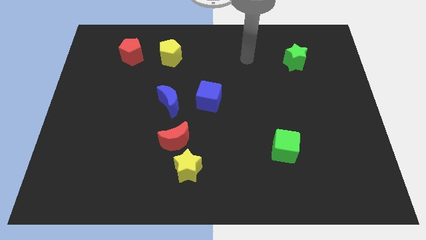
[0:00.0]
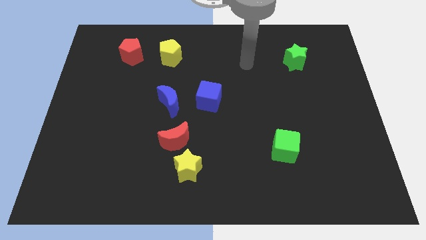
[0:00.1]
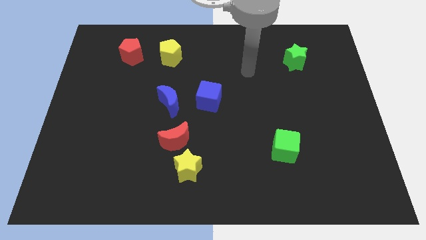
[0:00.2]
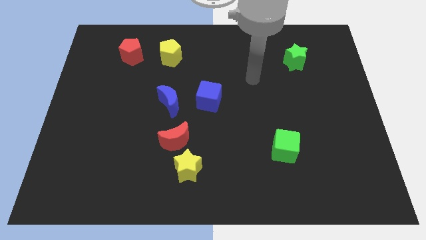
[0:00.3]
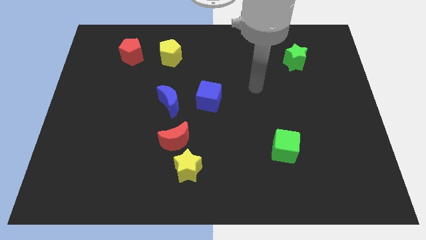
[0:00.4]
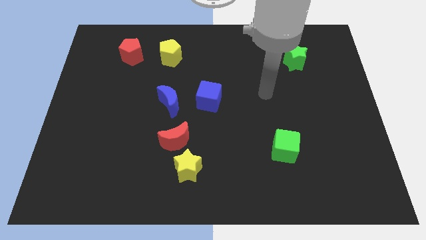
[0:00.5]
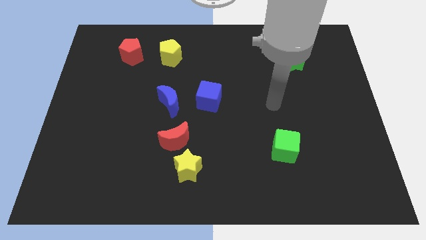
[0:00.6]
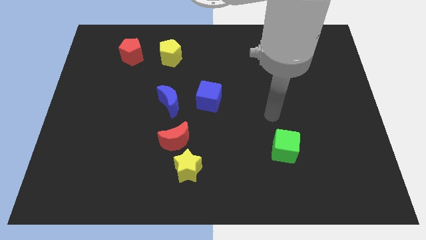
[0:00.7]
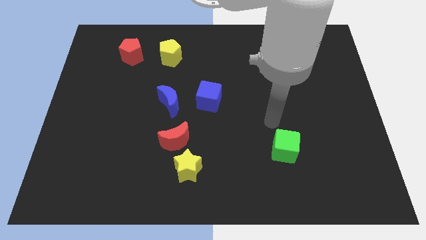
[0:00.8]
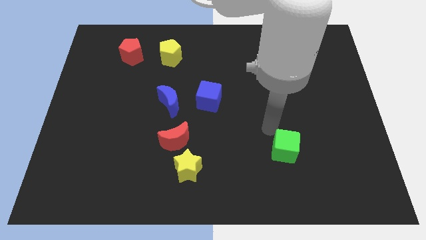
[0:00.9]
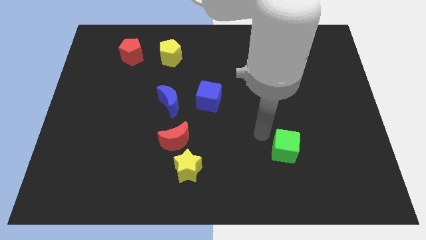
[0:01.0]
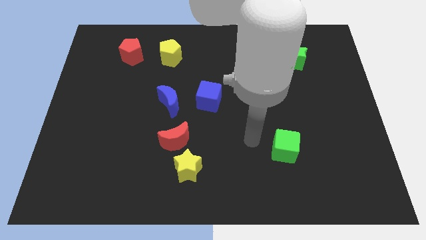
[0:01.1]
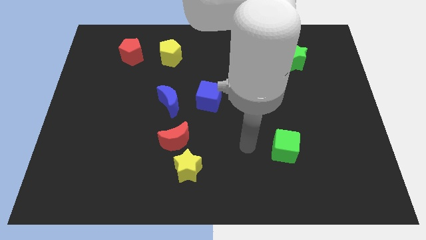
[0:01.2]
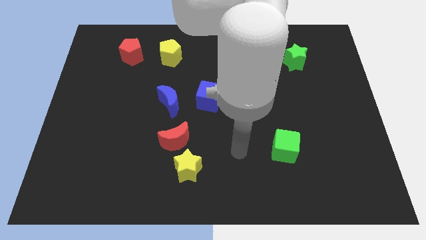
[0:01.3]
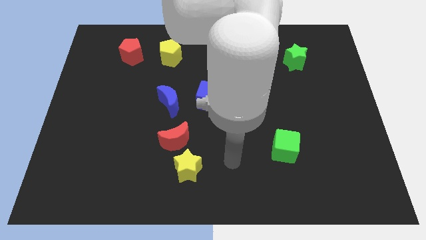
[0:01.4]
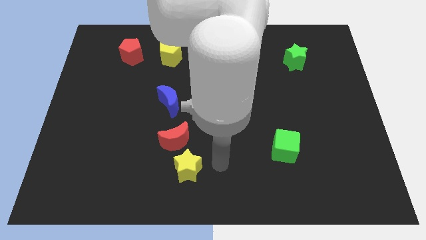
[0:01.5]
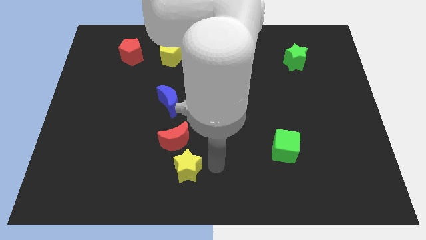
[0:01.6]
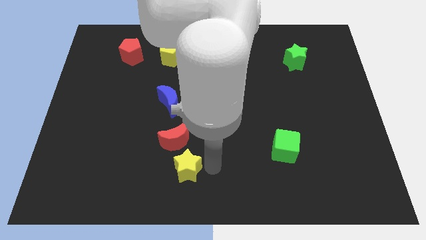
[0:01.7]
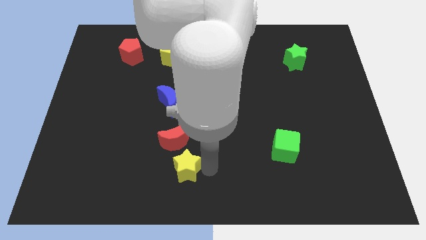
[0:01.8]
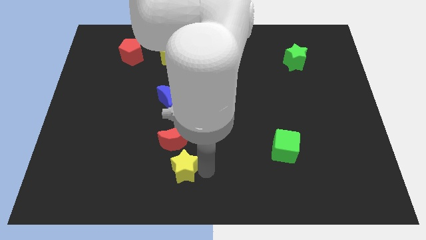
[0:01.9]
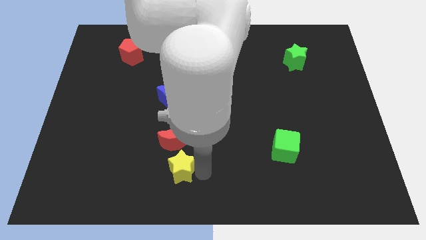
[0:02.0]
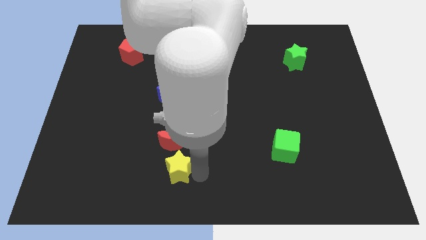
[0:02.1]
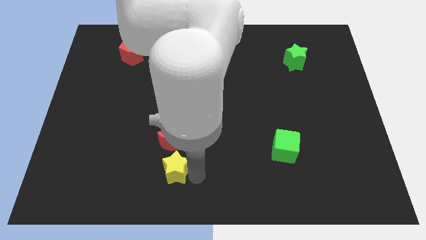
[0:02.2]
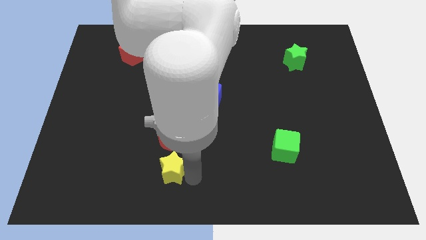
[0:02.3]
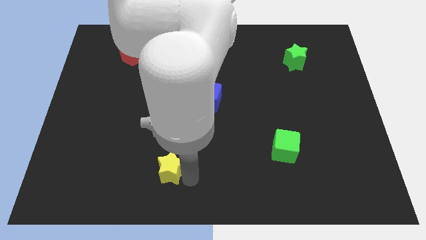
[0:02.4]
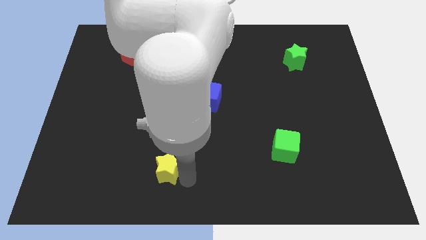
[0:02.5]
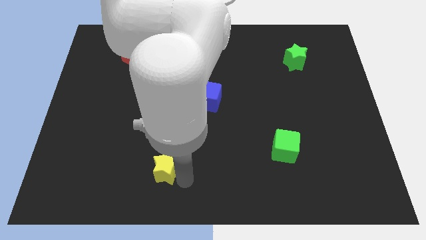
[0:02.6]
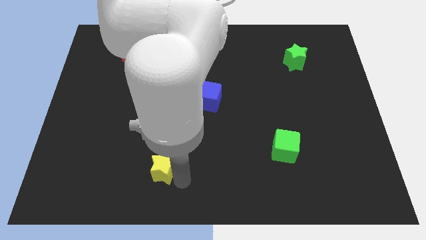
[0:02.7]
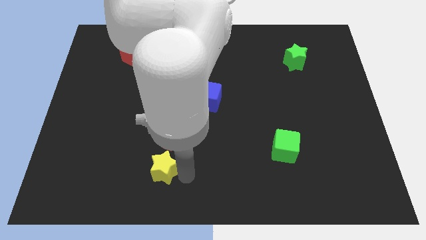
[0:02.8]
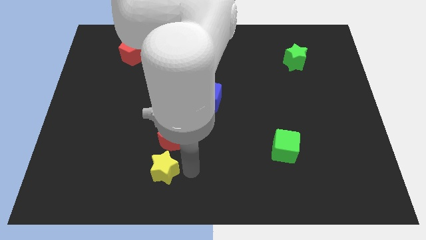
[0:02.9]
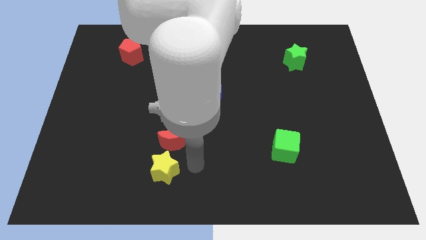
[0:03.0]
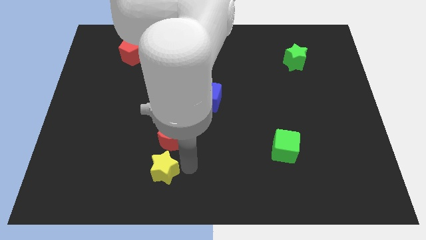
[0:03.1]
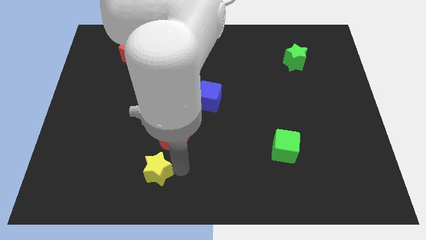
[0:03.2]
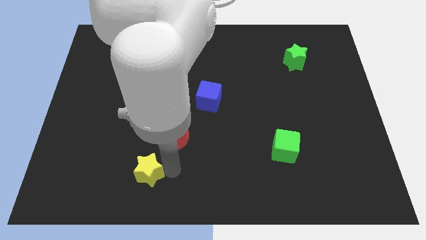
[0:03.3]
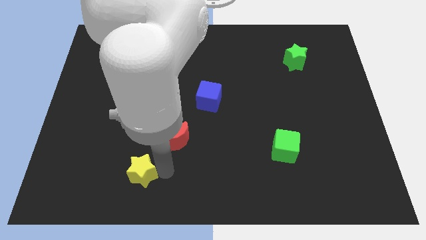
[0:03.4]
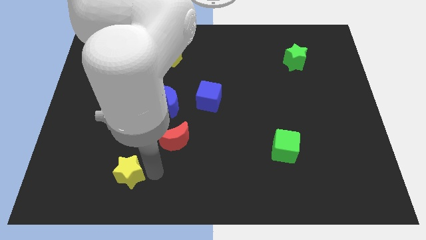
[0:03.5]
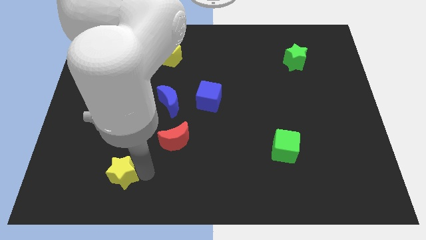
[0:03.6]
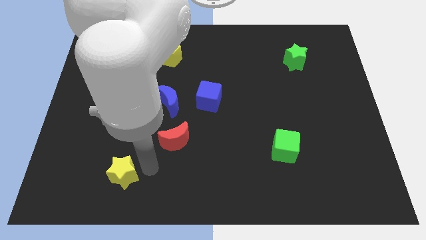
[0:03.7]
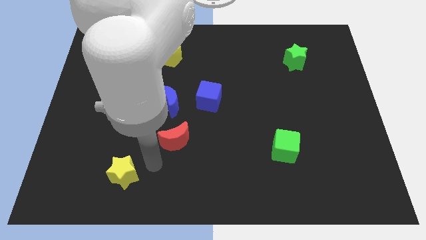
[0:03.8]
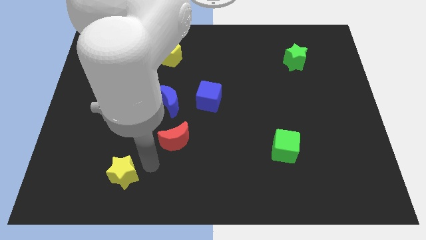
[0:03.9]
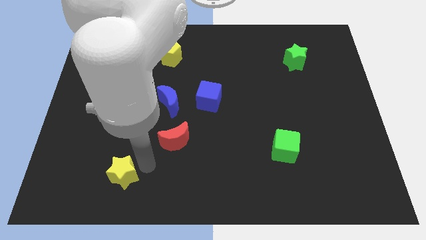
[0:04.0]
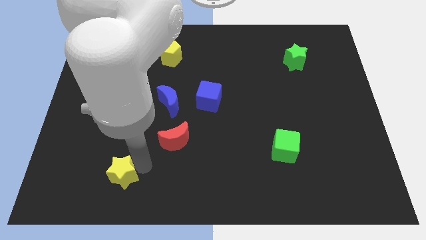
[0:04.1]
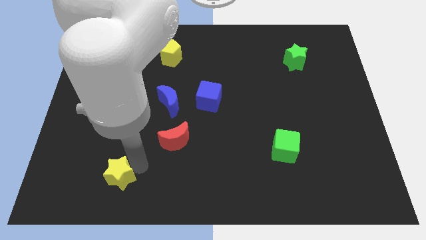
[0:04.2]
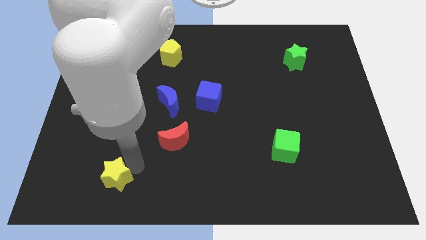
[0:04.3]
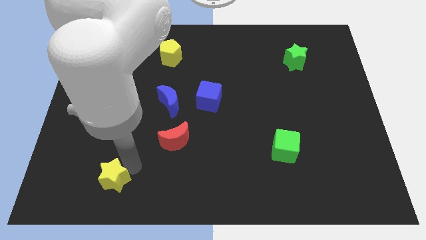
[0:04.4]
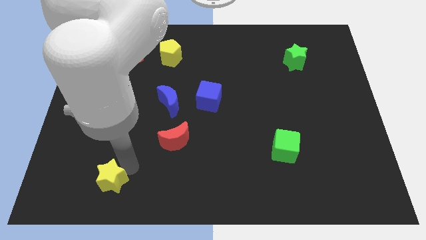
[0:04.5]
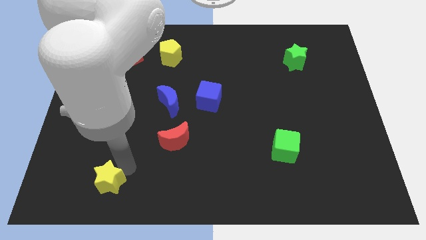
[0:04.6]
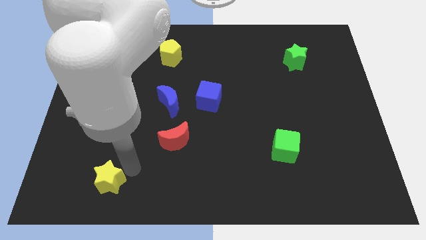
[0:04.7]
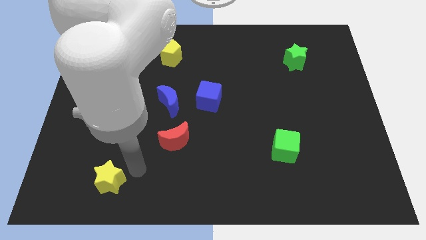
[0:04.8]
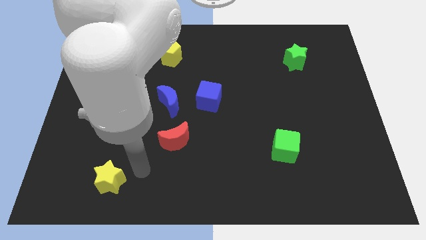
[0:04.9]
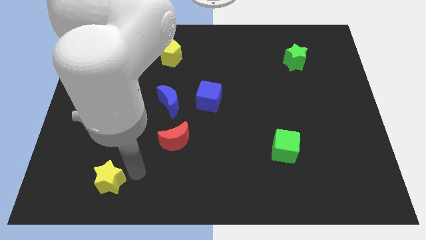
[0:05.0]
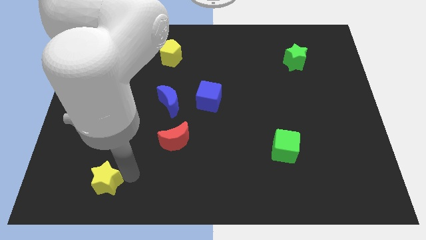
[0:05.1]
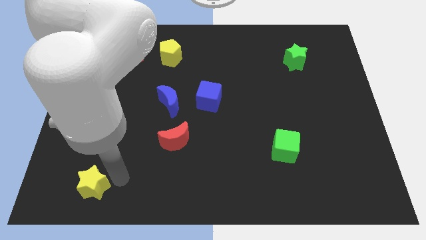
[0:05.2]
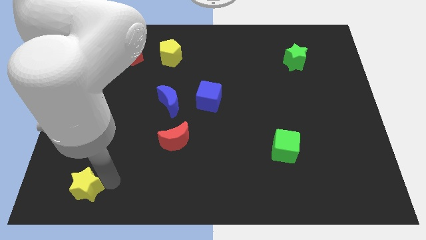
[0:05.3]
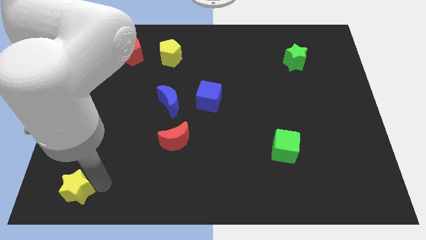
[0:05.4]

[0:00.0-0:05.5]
put the yellow star to the bottom left

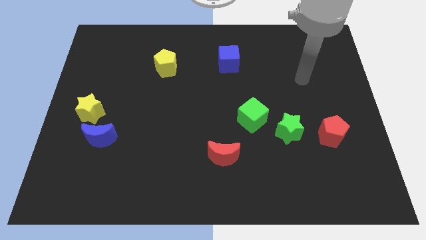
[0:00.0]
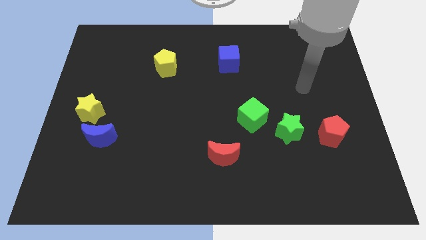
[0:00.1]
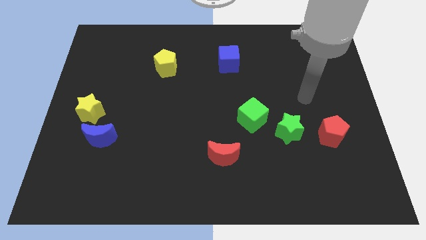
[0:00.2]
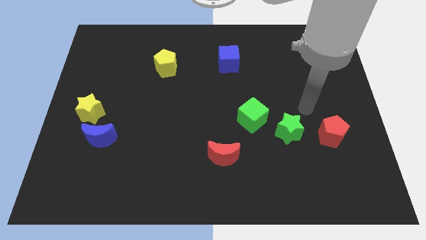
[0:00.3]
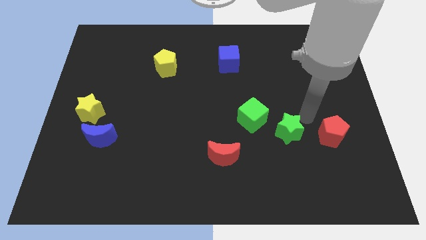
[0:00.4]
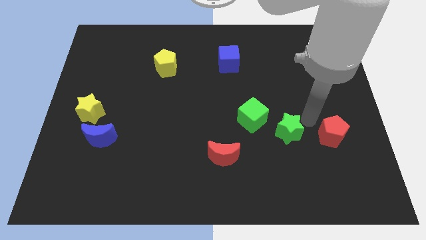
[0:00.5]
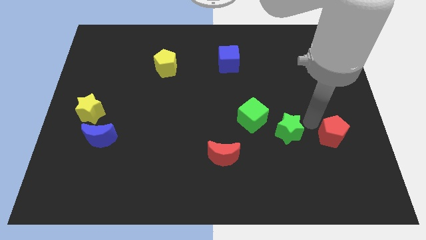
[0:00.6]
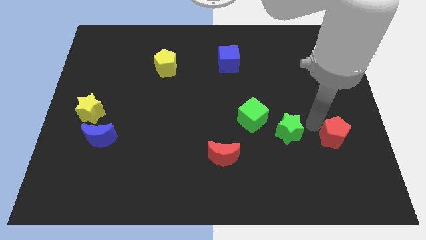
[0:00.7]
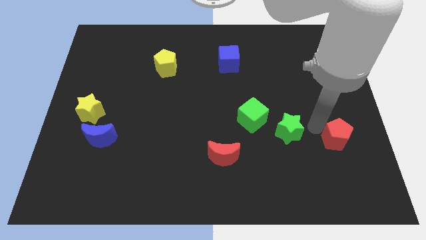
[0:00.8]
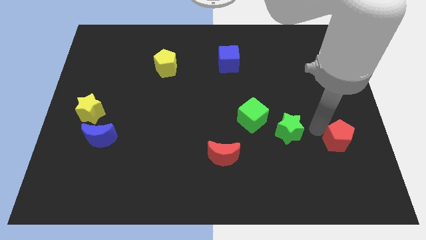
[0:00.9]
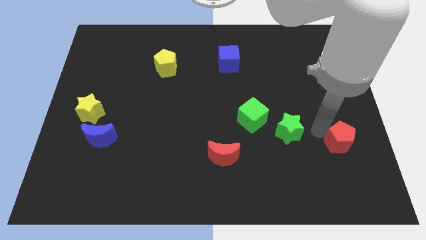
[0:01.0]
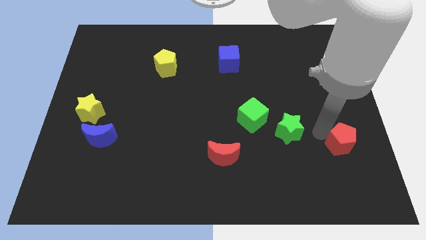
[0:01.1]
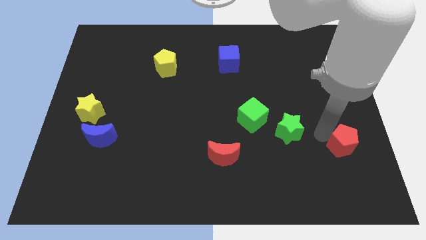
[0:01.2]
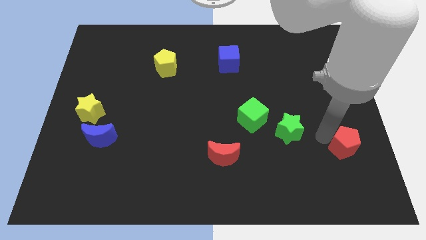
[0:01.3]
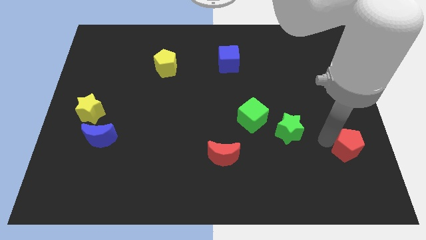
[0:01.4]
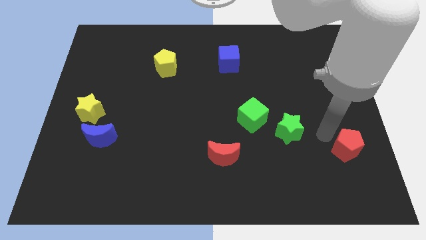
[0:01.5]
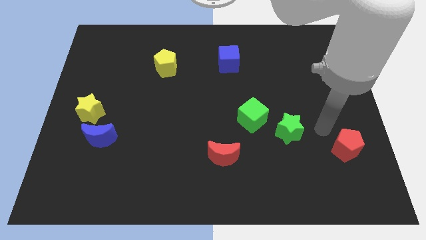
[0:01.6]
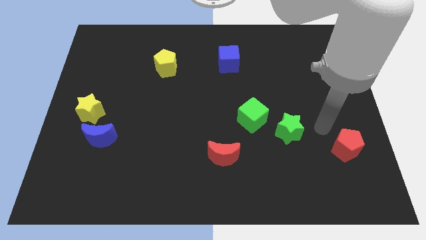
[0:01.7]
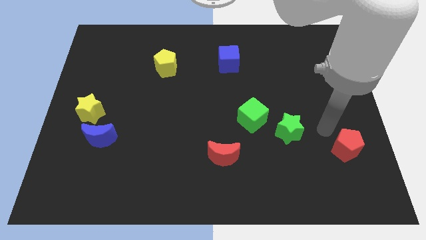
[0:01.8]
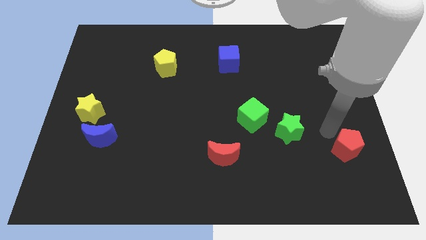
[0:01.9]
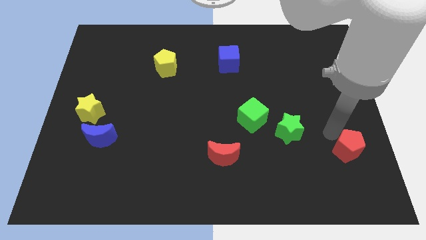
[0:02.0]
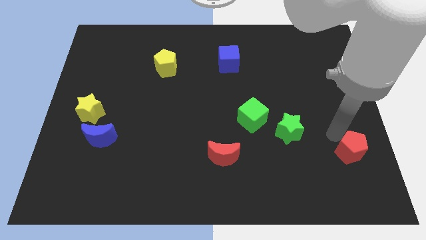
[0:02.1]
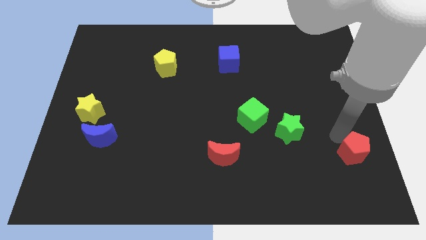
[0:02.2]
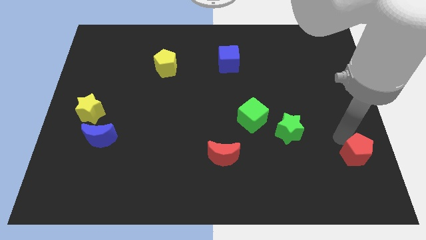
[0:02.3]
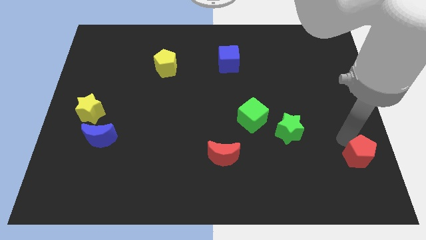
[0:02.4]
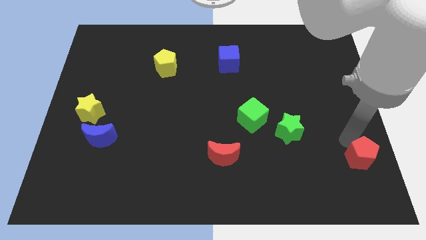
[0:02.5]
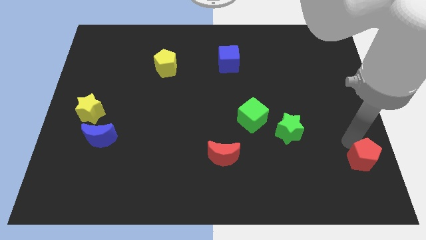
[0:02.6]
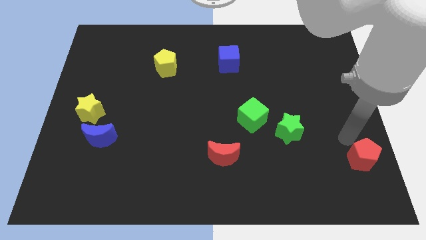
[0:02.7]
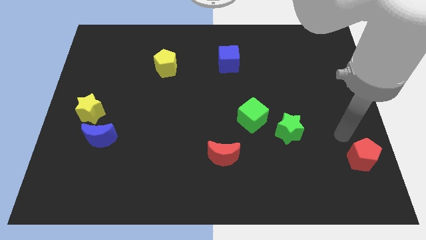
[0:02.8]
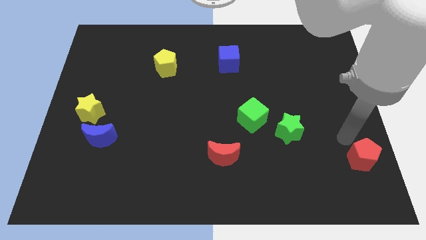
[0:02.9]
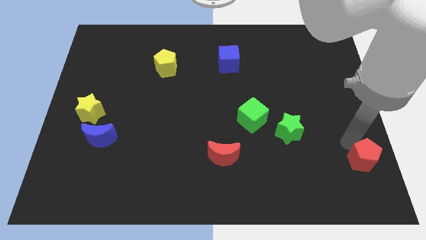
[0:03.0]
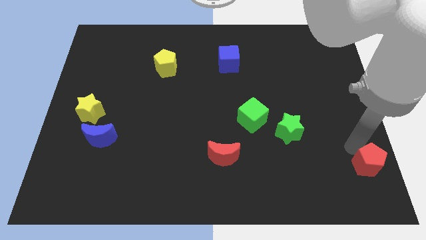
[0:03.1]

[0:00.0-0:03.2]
put the red pentagon to the bottom right
